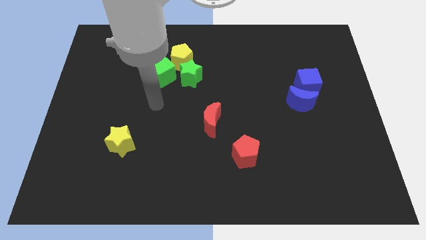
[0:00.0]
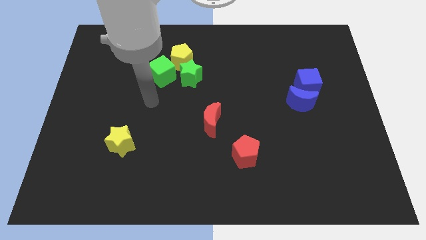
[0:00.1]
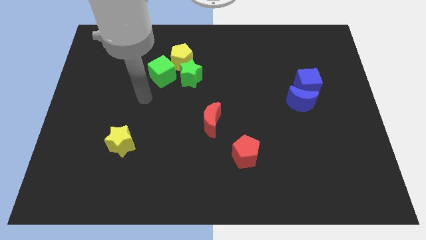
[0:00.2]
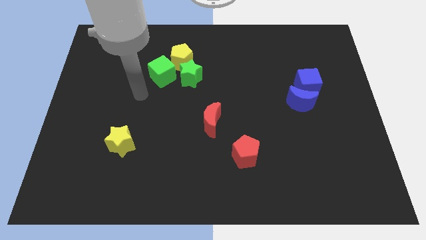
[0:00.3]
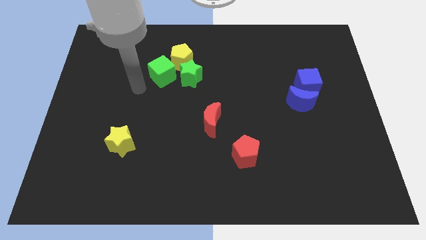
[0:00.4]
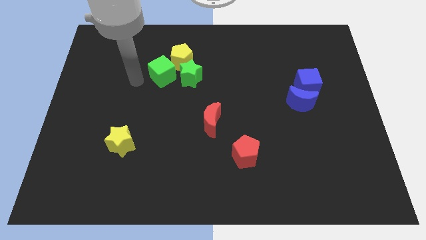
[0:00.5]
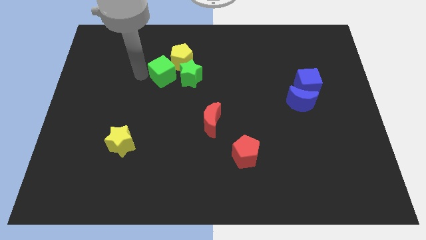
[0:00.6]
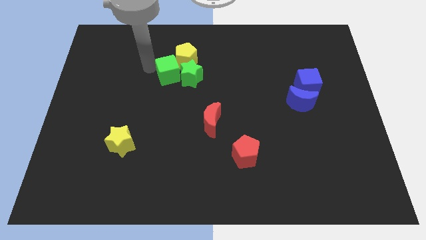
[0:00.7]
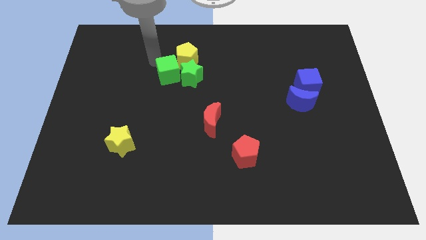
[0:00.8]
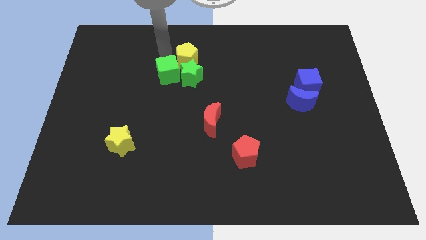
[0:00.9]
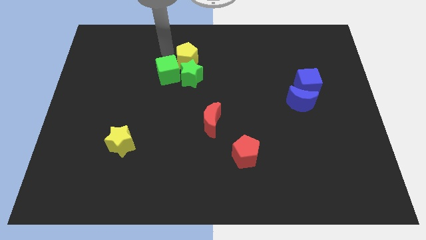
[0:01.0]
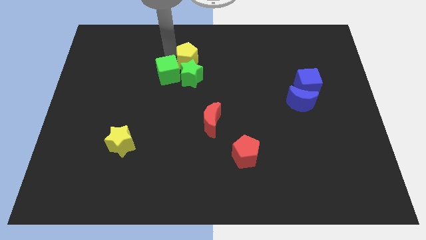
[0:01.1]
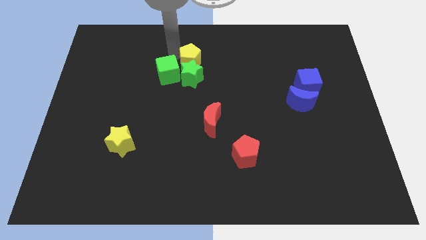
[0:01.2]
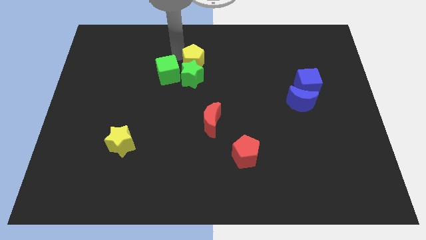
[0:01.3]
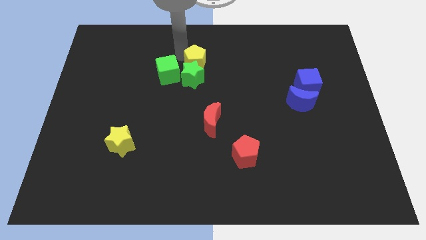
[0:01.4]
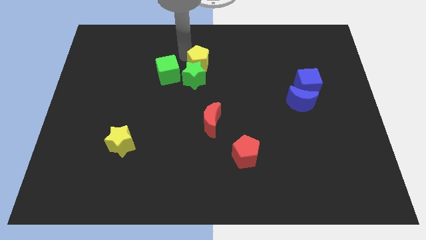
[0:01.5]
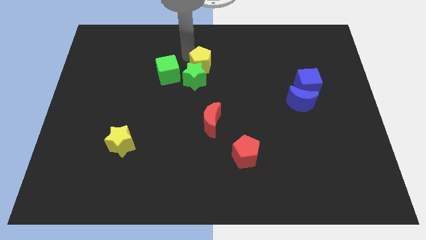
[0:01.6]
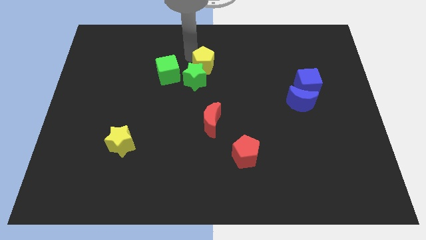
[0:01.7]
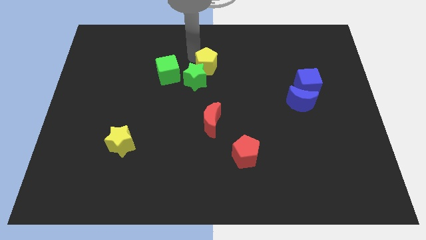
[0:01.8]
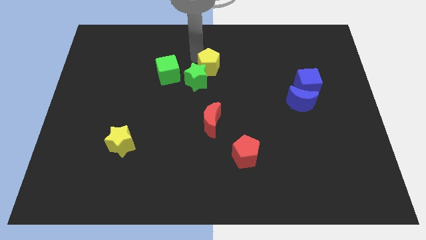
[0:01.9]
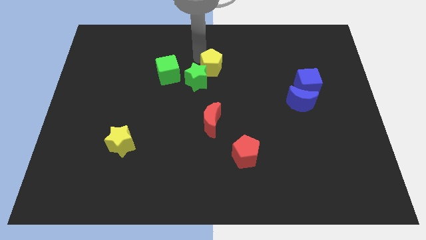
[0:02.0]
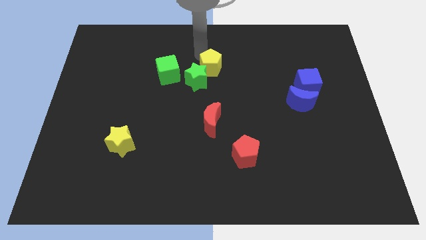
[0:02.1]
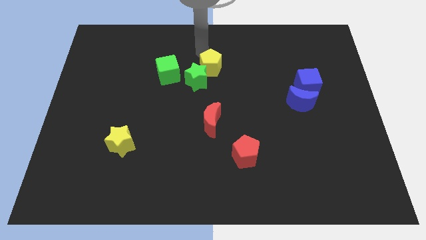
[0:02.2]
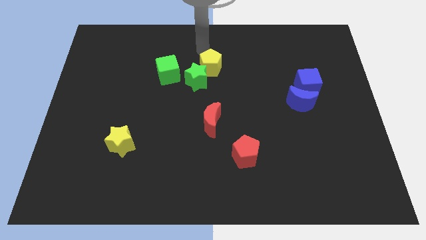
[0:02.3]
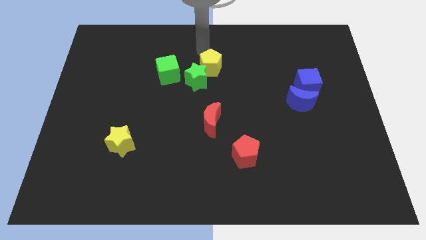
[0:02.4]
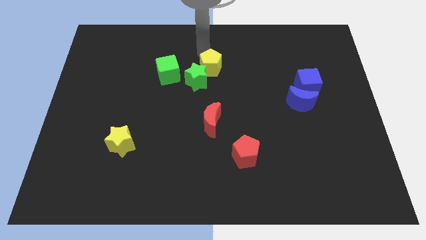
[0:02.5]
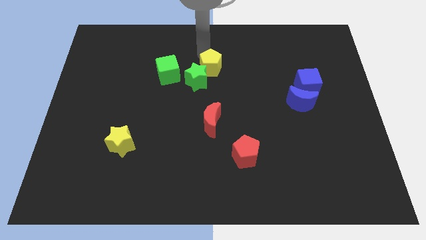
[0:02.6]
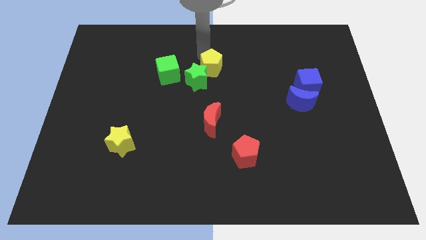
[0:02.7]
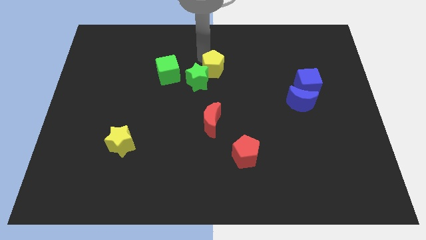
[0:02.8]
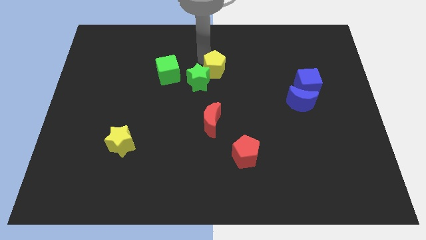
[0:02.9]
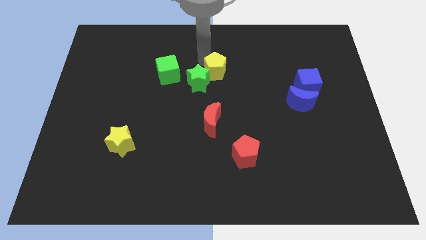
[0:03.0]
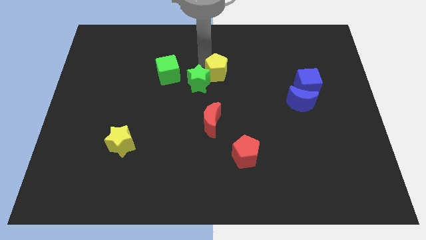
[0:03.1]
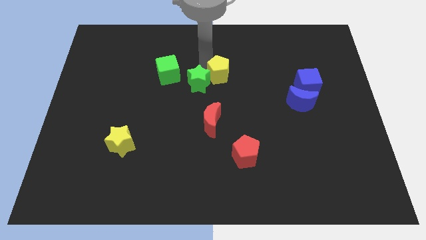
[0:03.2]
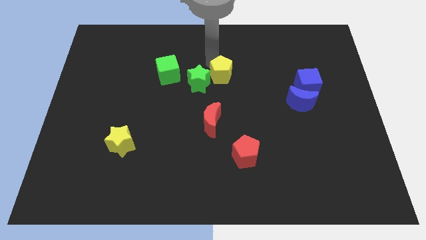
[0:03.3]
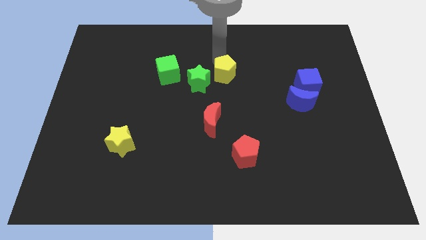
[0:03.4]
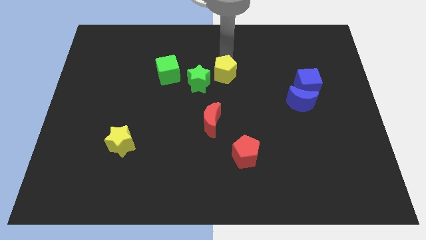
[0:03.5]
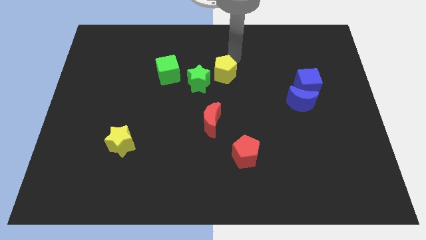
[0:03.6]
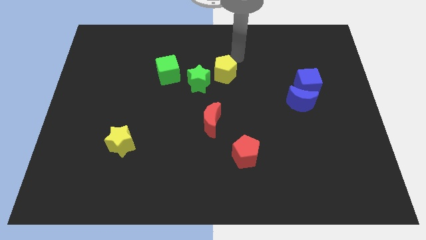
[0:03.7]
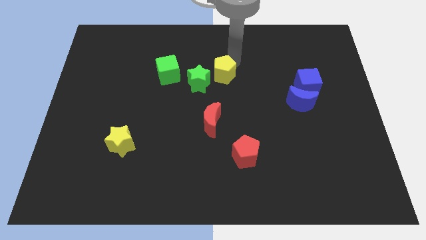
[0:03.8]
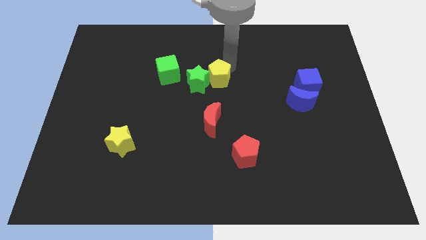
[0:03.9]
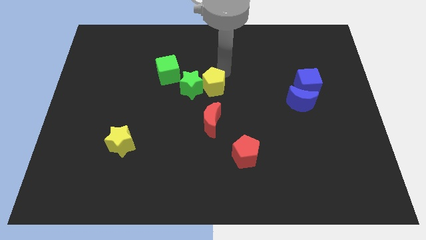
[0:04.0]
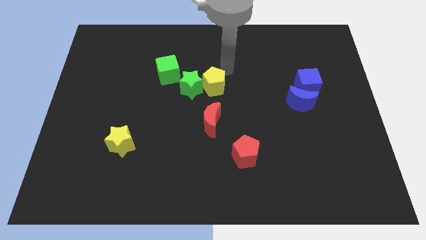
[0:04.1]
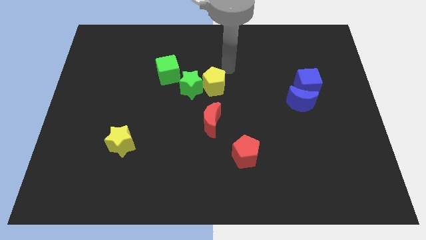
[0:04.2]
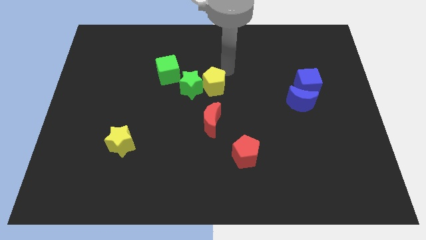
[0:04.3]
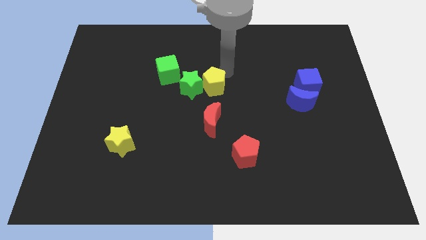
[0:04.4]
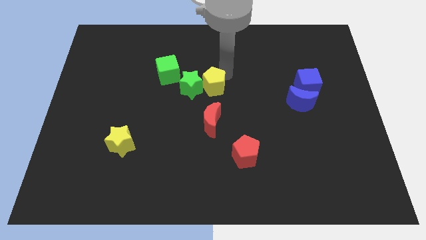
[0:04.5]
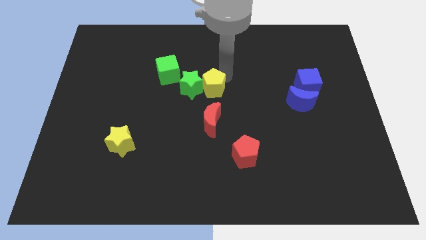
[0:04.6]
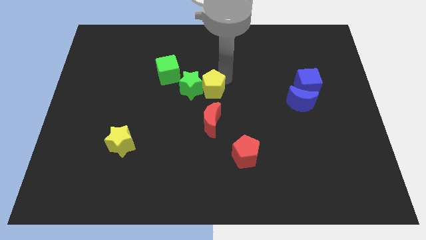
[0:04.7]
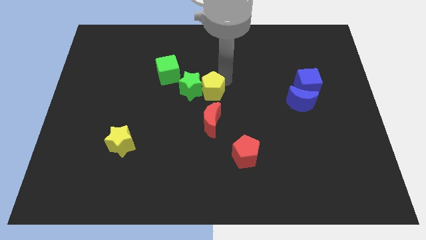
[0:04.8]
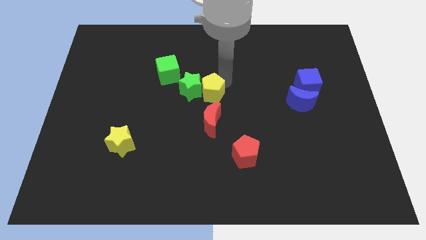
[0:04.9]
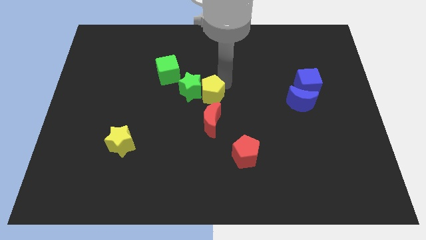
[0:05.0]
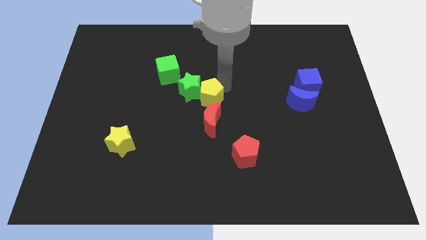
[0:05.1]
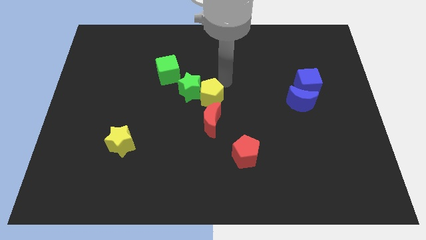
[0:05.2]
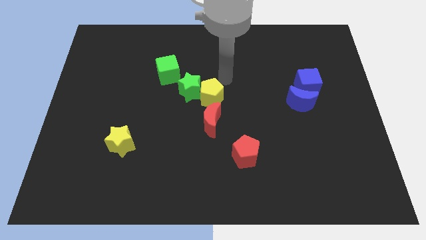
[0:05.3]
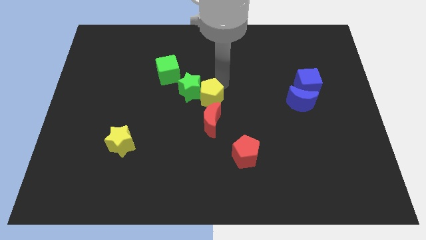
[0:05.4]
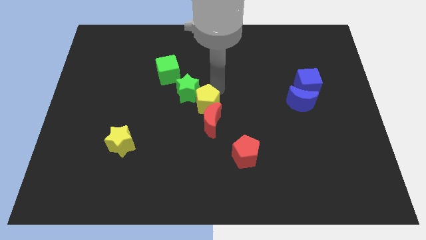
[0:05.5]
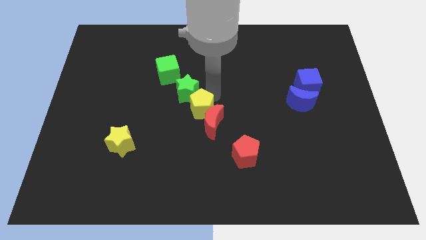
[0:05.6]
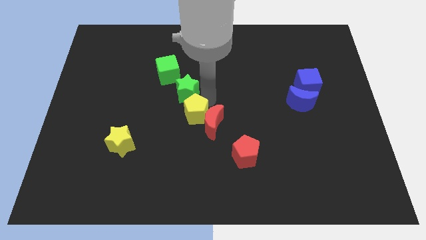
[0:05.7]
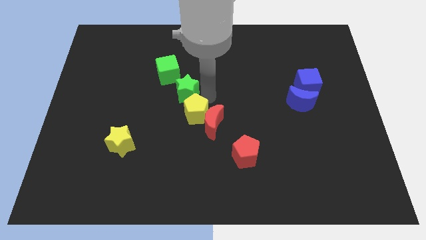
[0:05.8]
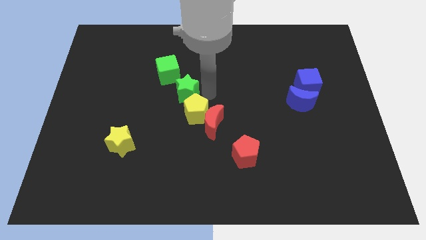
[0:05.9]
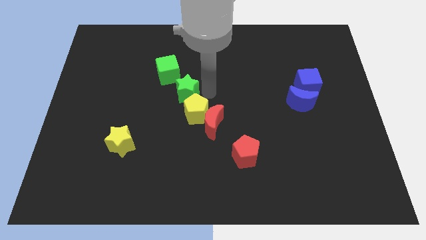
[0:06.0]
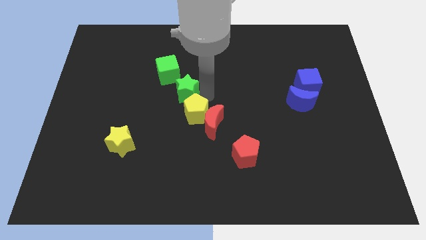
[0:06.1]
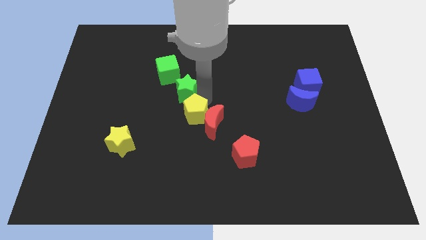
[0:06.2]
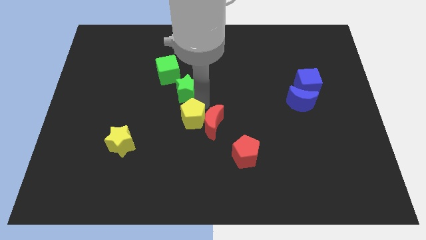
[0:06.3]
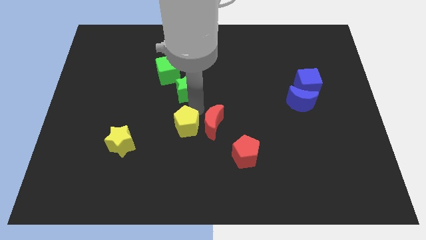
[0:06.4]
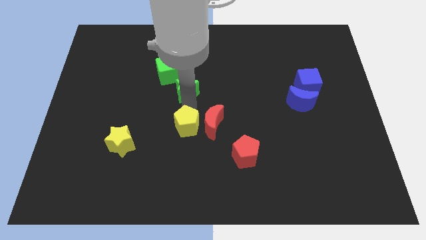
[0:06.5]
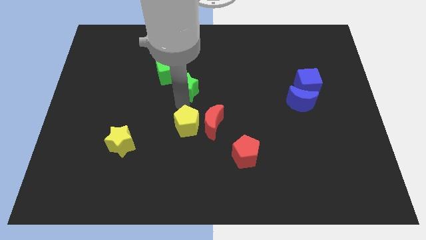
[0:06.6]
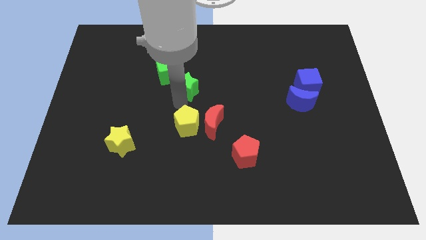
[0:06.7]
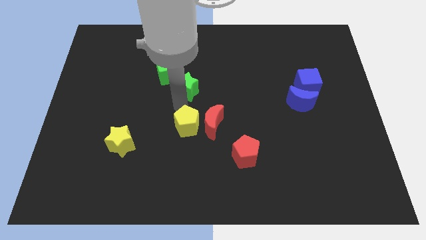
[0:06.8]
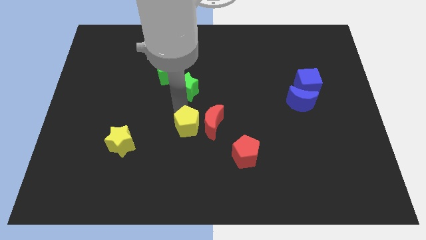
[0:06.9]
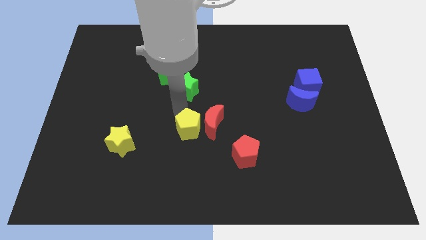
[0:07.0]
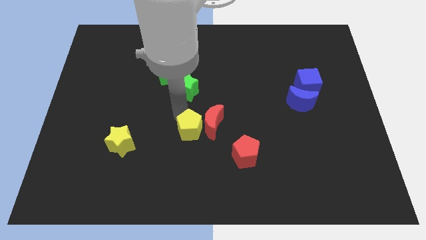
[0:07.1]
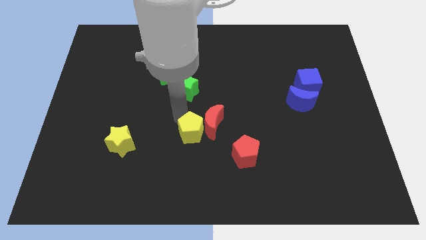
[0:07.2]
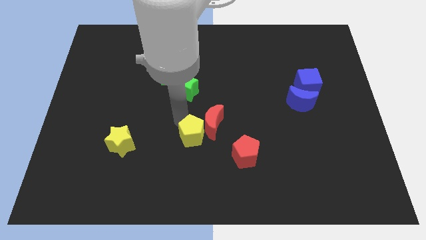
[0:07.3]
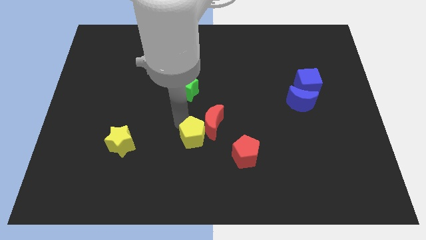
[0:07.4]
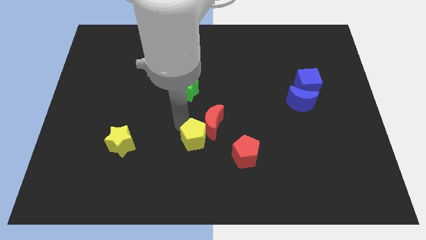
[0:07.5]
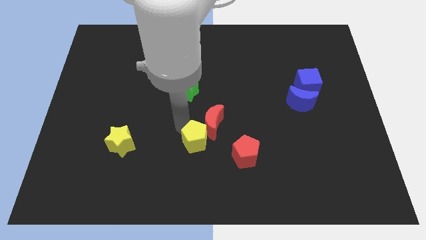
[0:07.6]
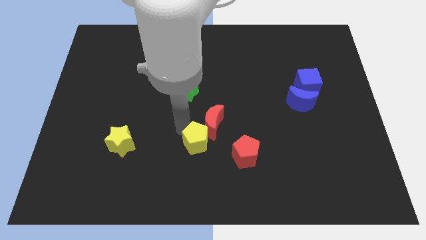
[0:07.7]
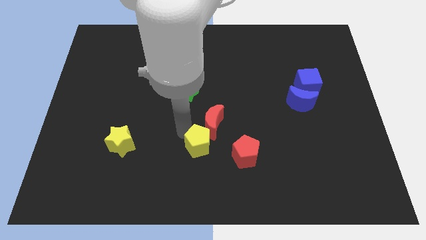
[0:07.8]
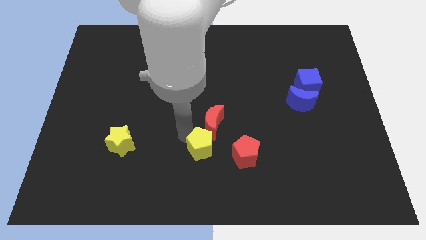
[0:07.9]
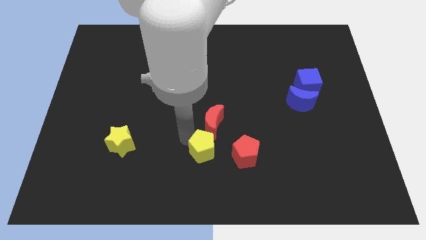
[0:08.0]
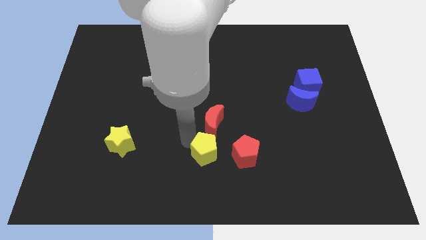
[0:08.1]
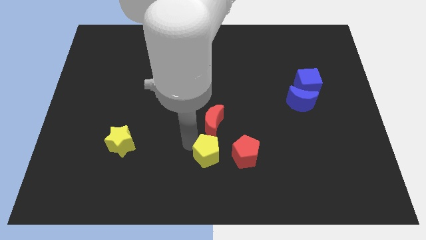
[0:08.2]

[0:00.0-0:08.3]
slide the yellow pentagon to the bottom side
